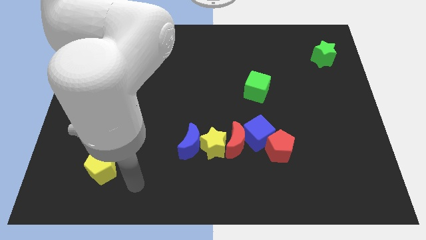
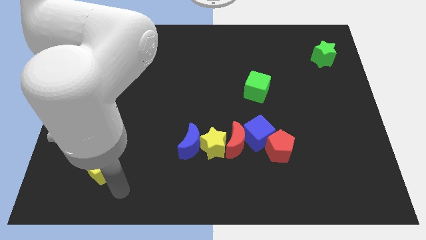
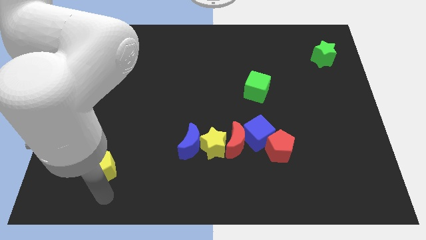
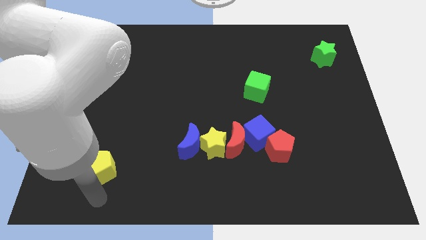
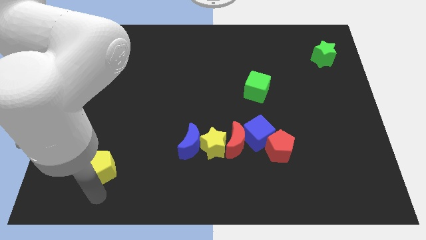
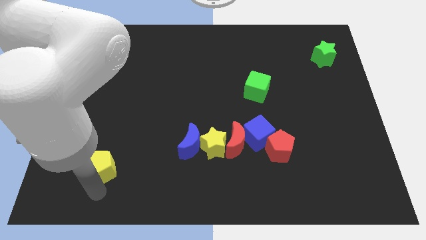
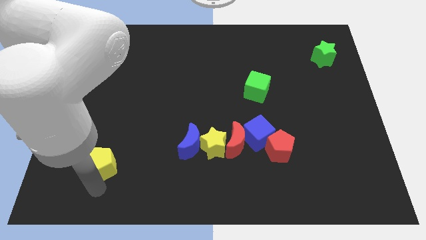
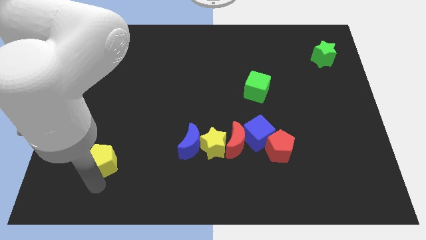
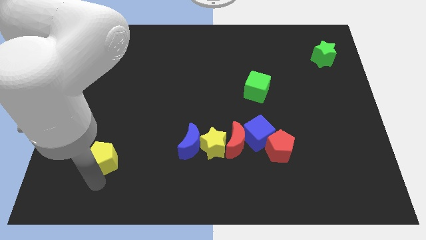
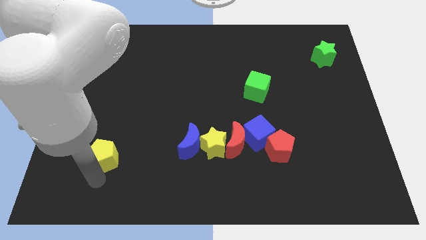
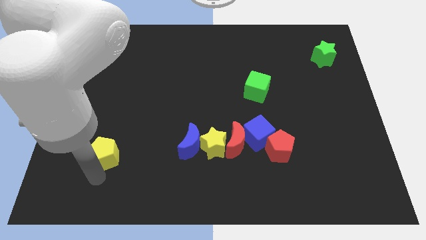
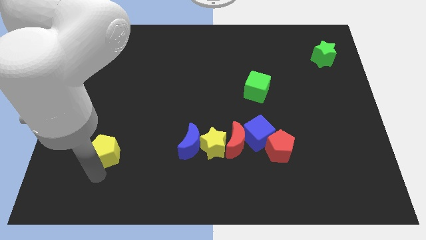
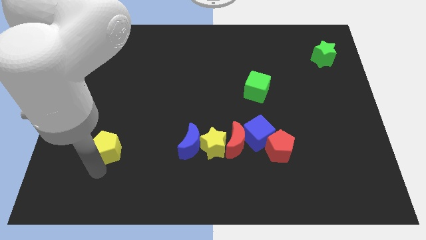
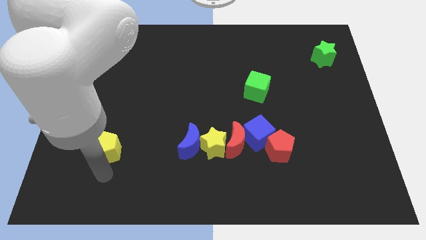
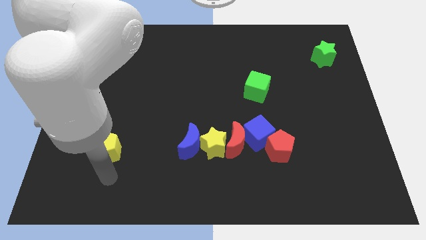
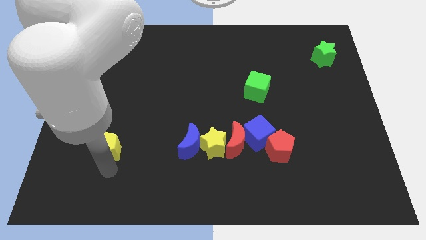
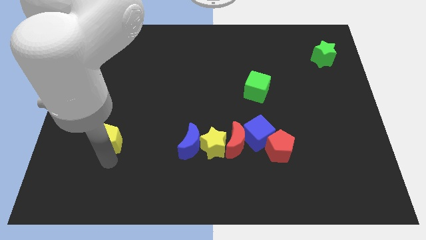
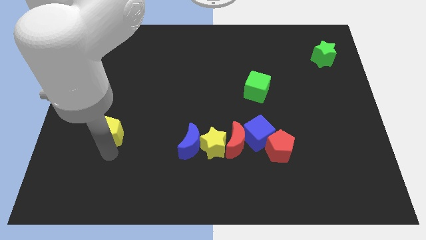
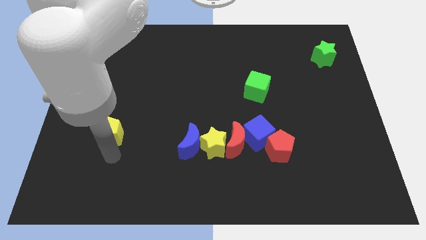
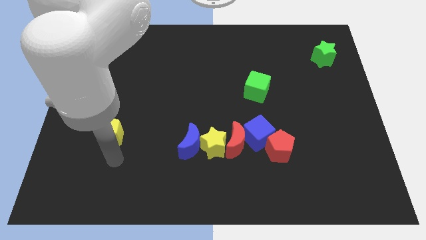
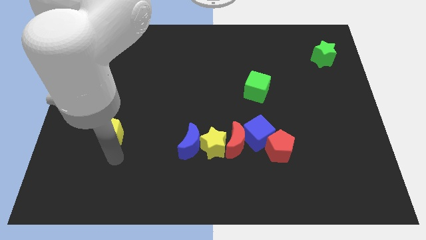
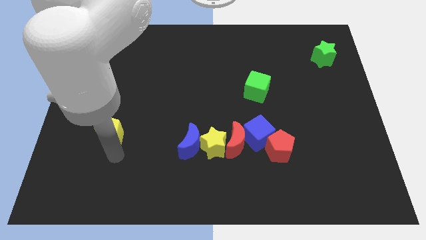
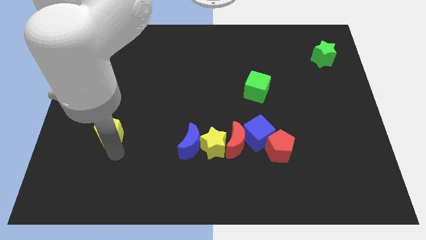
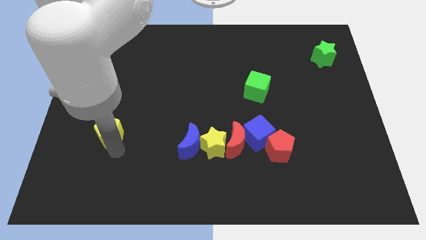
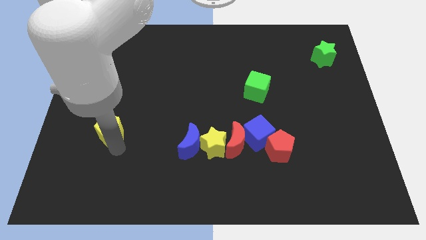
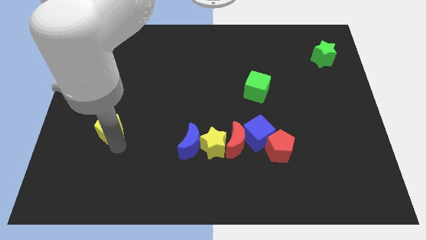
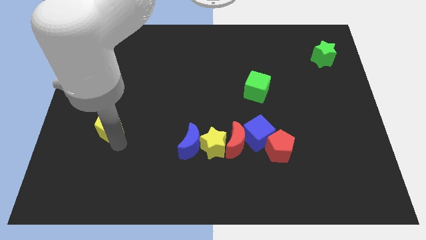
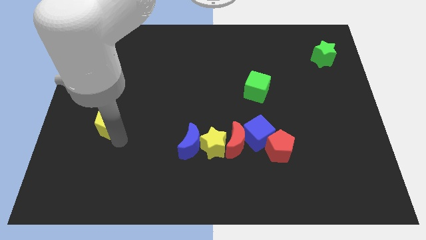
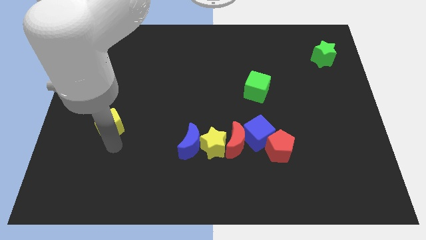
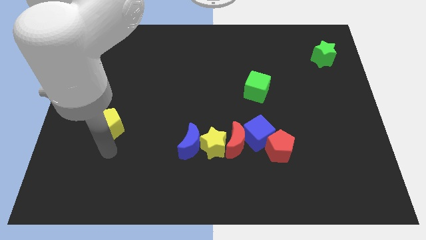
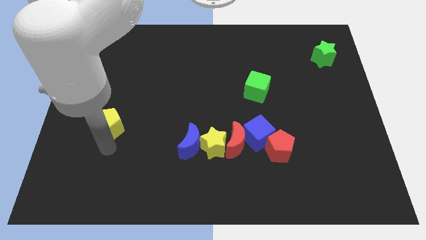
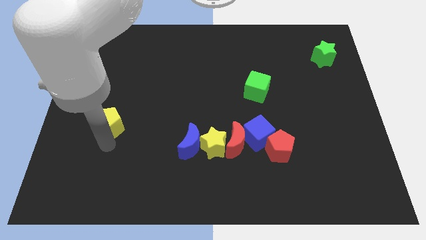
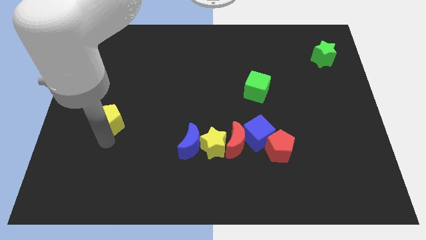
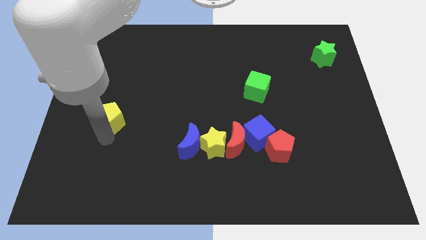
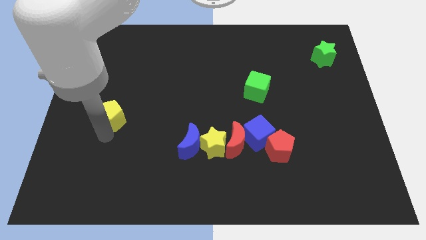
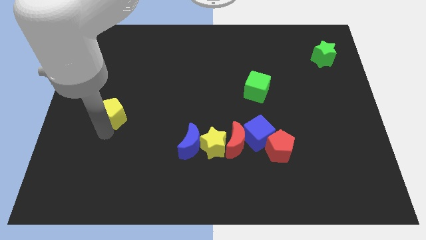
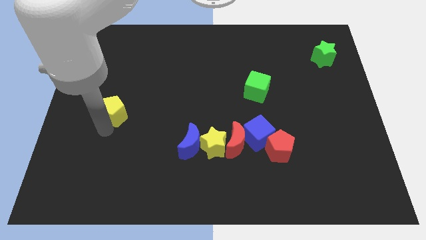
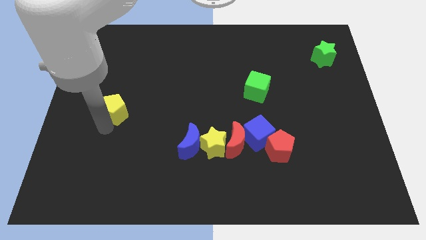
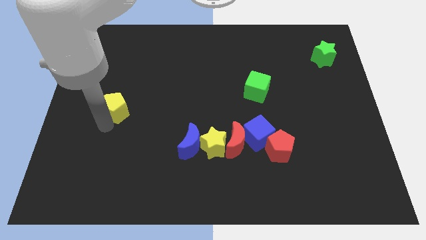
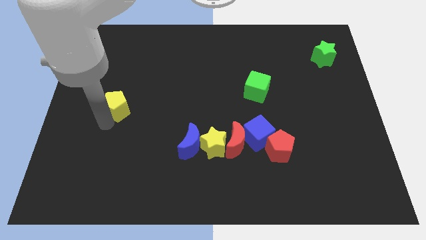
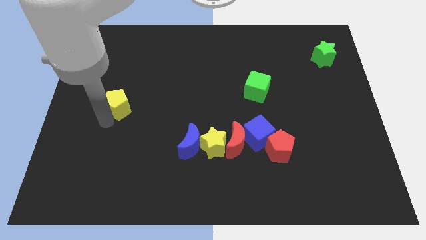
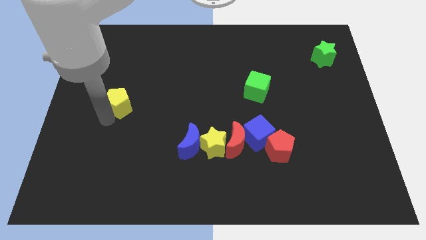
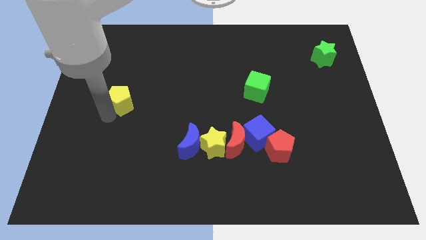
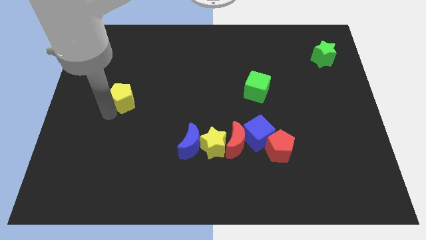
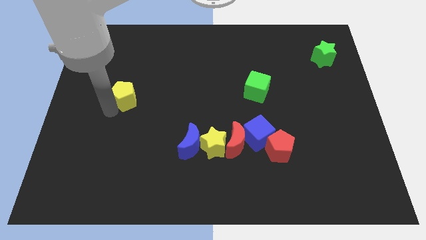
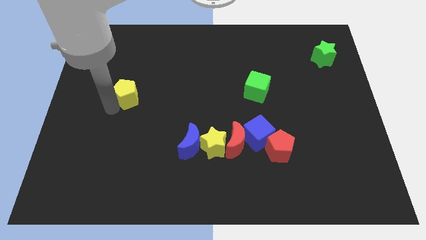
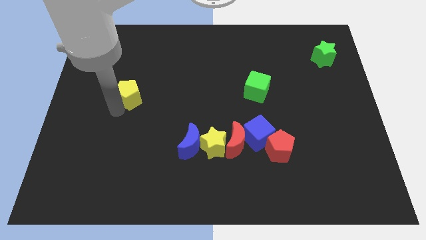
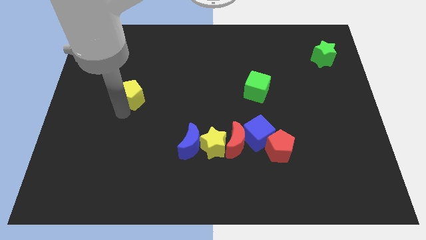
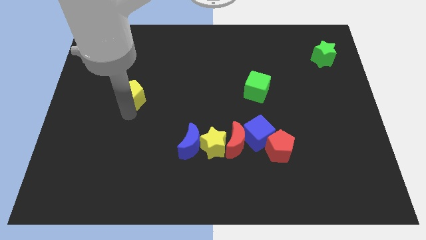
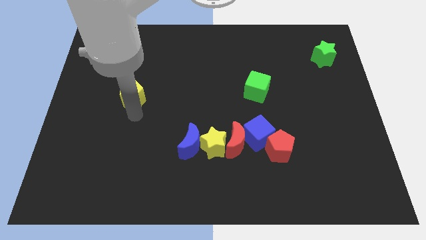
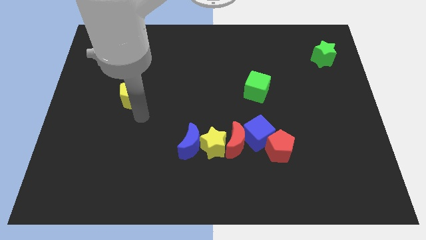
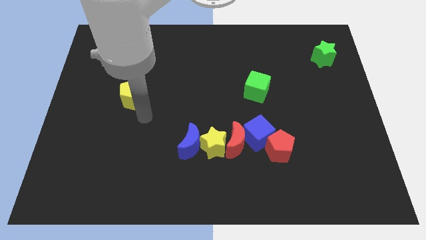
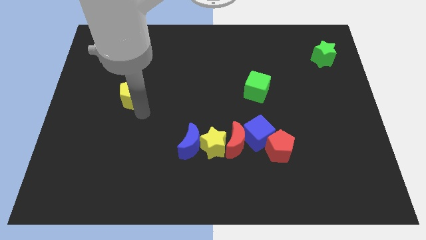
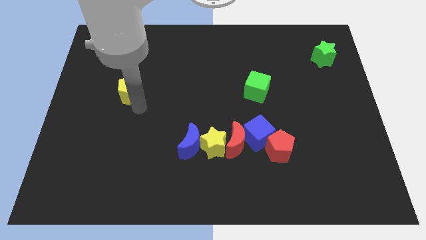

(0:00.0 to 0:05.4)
push the yellow pentagon upwards

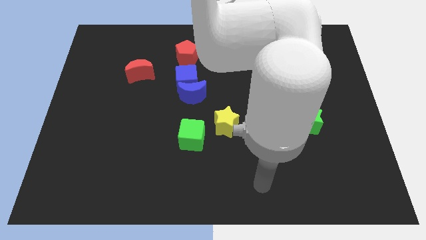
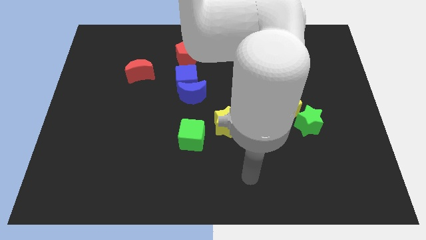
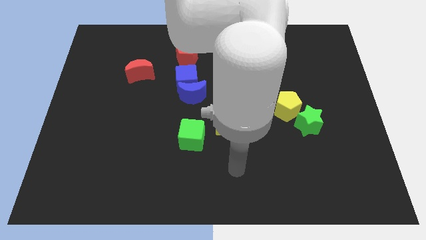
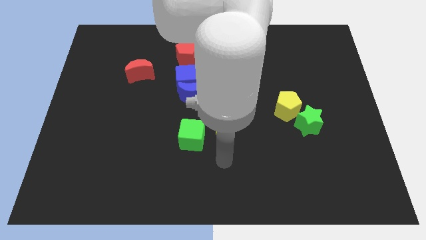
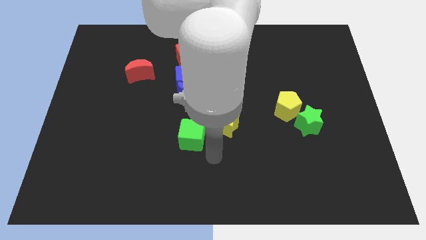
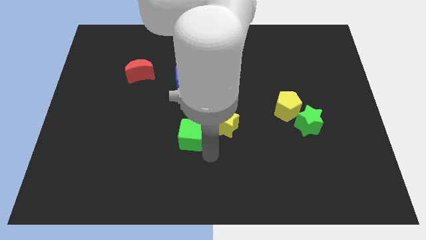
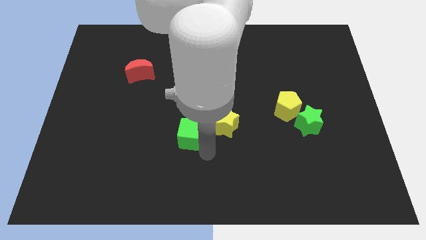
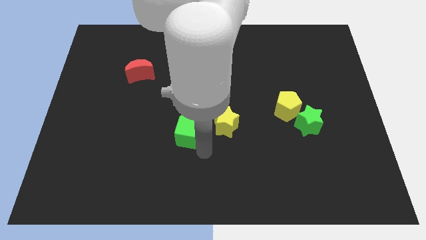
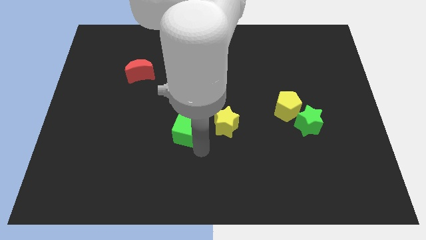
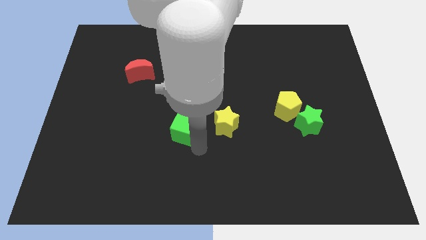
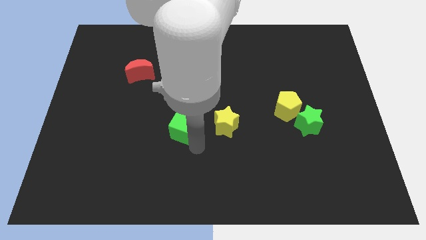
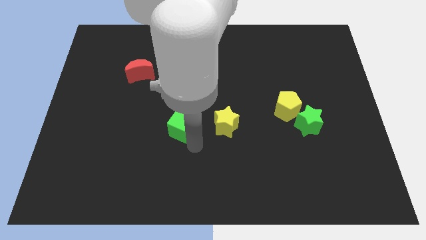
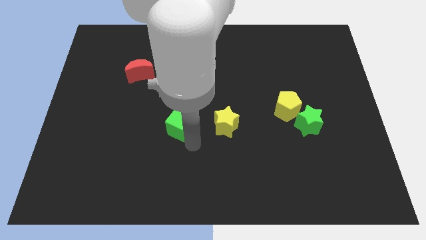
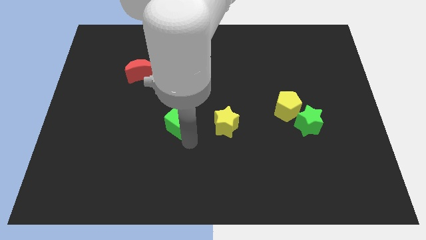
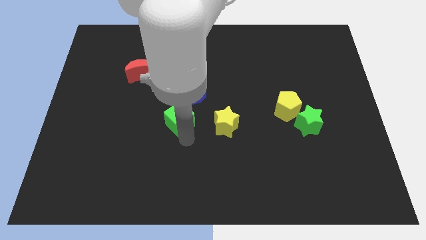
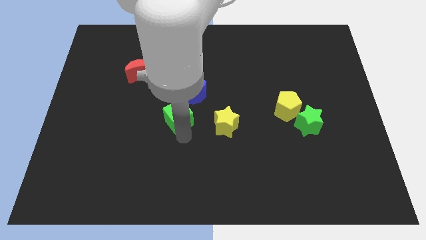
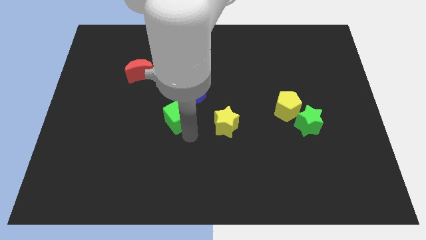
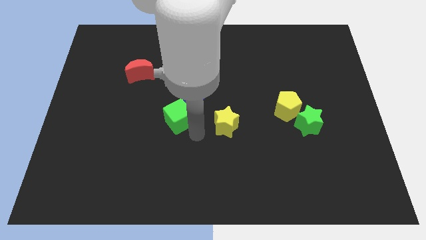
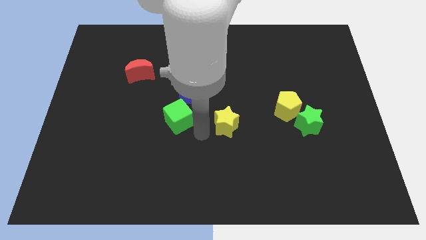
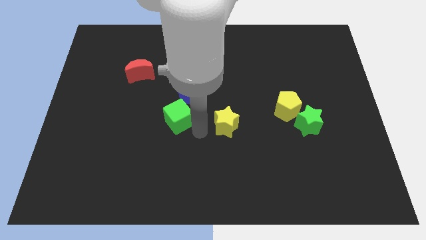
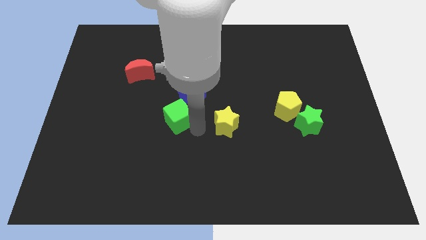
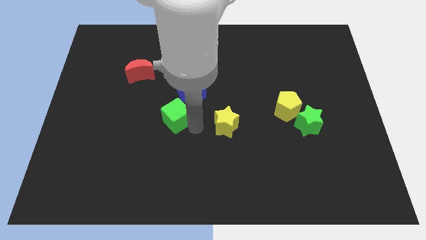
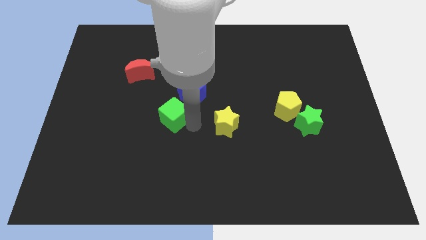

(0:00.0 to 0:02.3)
slightly slide the green cube upwards and then left
